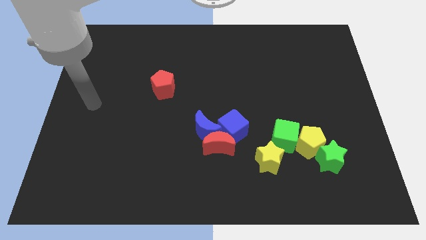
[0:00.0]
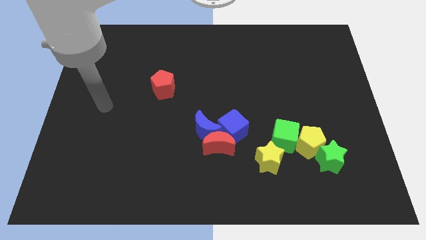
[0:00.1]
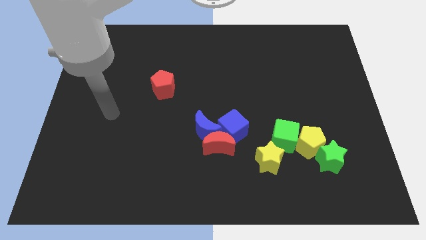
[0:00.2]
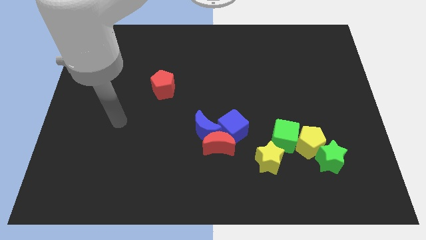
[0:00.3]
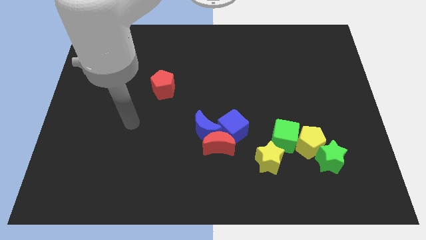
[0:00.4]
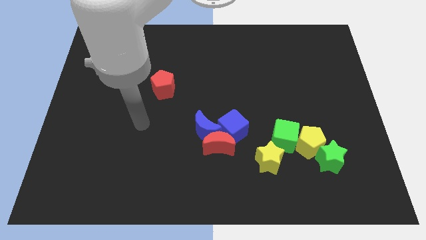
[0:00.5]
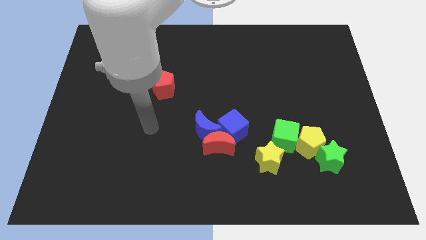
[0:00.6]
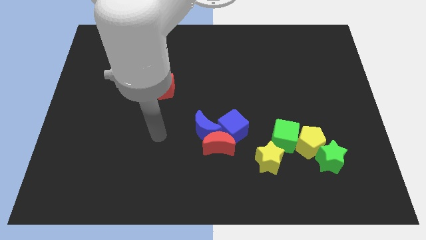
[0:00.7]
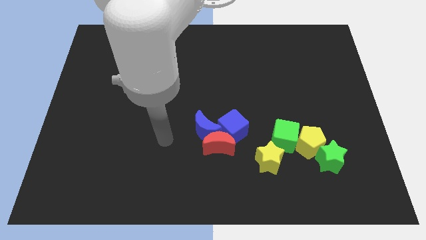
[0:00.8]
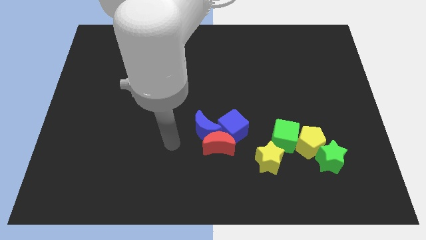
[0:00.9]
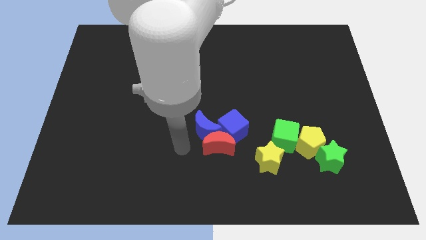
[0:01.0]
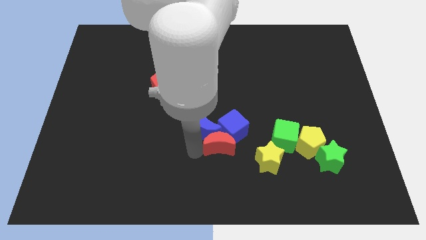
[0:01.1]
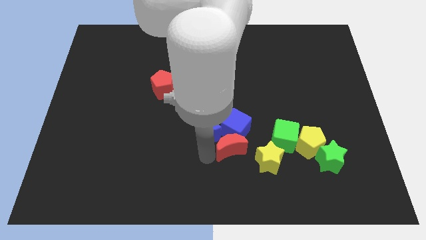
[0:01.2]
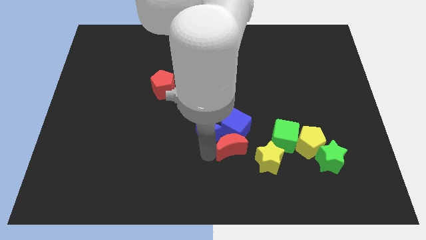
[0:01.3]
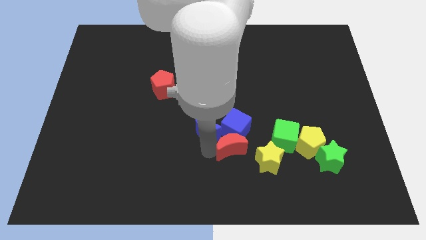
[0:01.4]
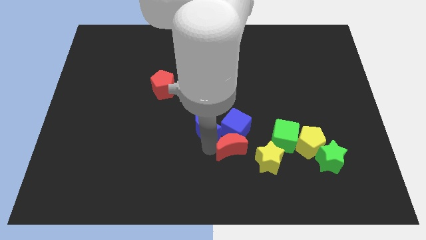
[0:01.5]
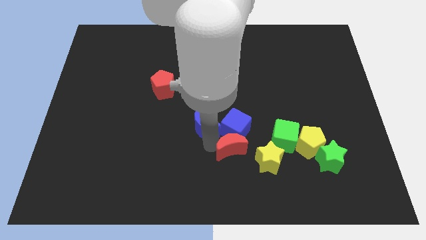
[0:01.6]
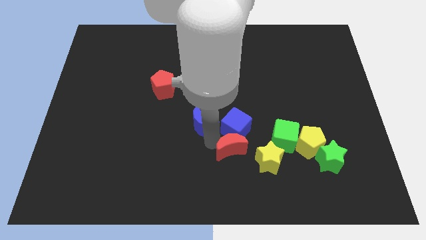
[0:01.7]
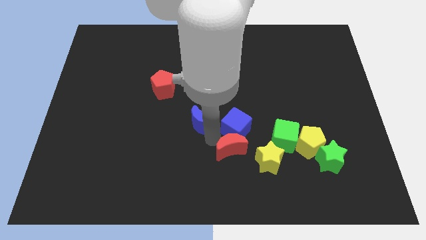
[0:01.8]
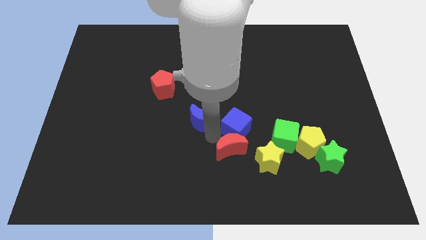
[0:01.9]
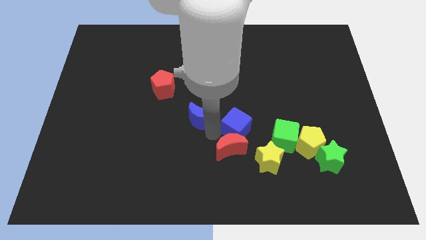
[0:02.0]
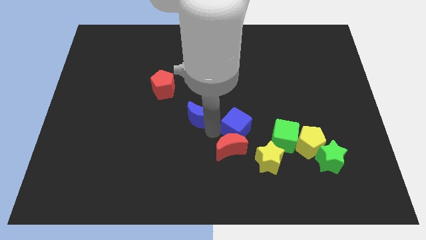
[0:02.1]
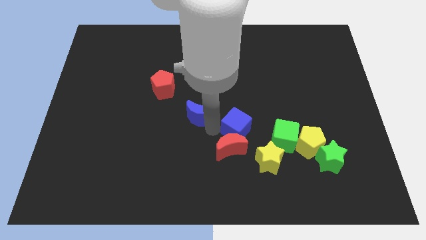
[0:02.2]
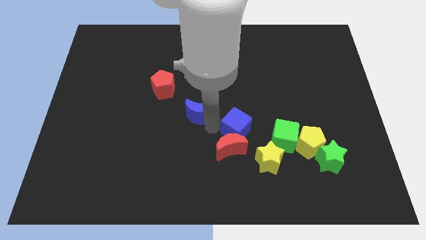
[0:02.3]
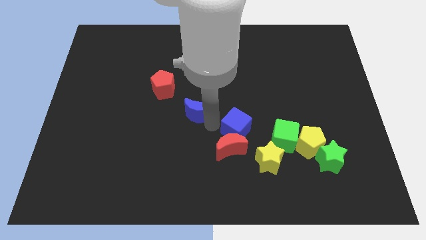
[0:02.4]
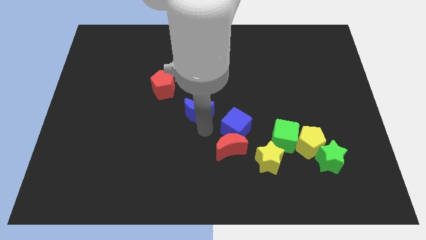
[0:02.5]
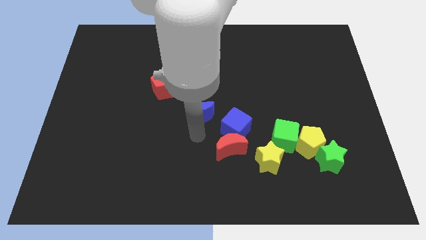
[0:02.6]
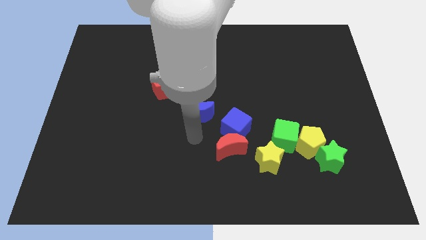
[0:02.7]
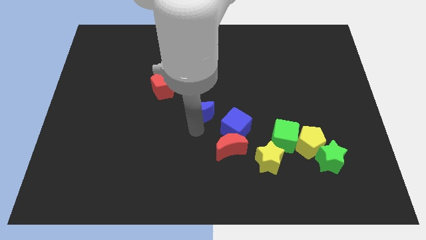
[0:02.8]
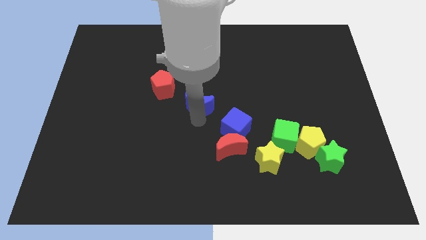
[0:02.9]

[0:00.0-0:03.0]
move the blue moon a little bit up

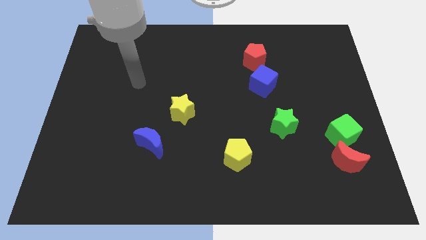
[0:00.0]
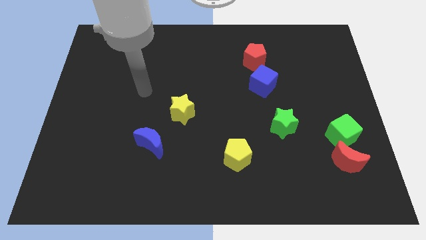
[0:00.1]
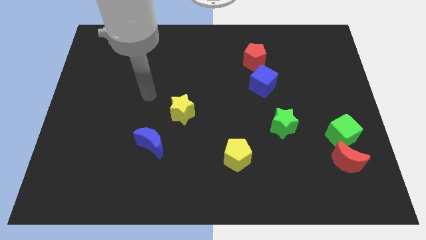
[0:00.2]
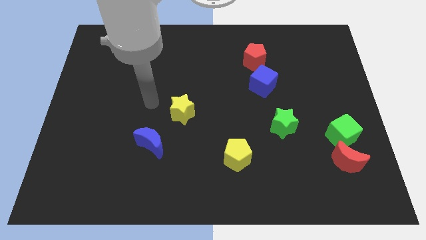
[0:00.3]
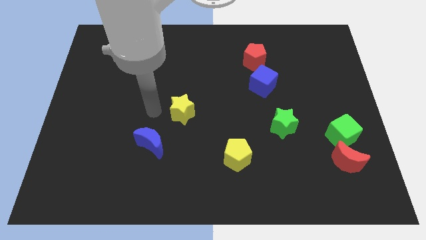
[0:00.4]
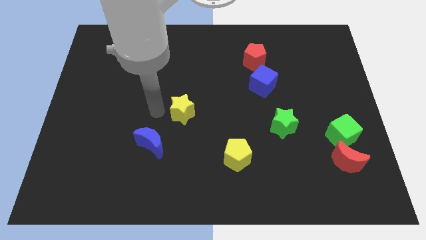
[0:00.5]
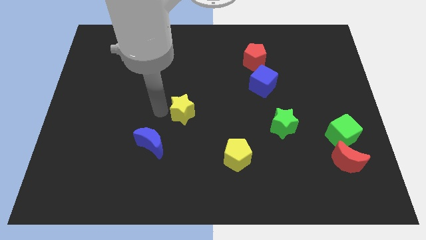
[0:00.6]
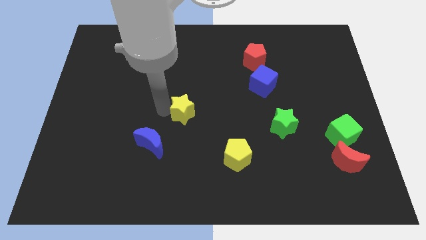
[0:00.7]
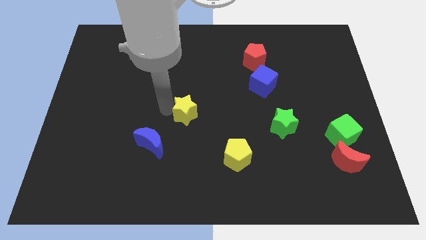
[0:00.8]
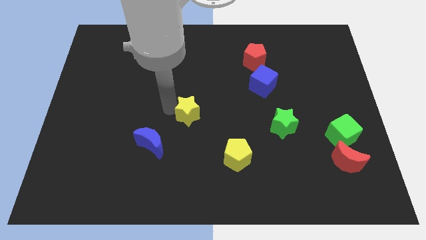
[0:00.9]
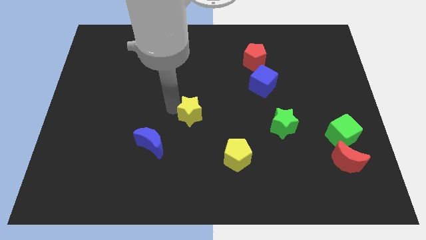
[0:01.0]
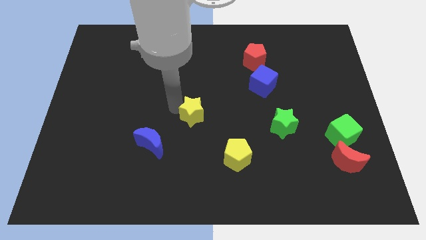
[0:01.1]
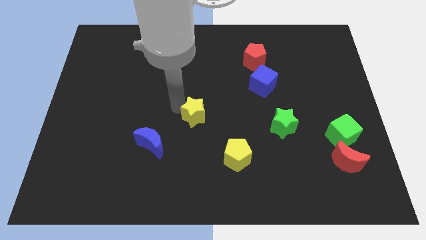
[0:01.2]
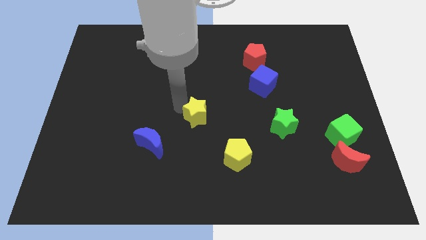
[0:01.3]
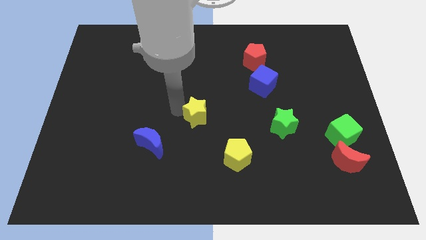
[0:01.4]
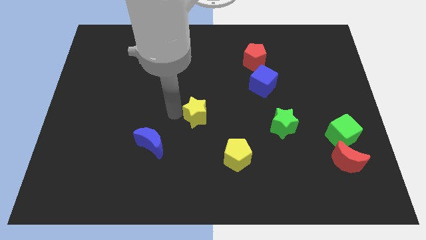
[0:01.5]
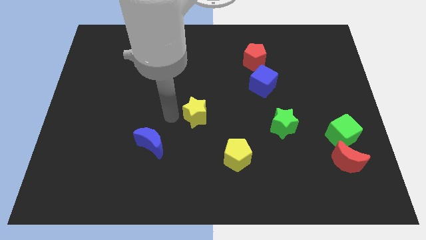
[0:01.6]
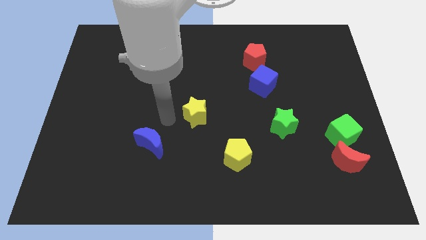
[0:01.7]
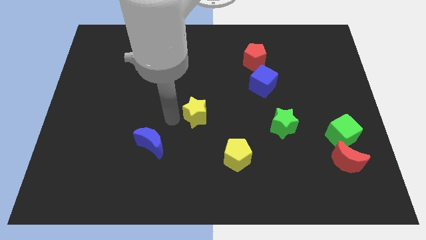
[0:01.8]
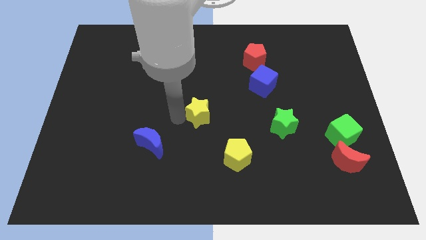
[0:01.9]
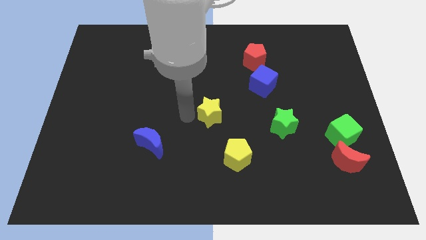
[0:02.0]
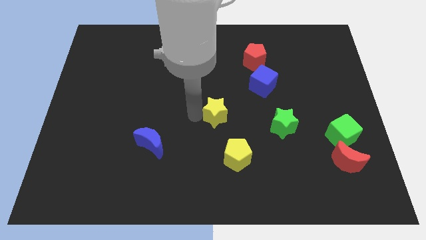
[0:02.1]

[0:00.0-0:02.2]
move the yellow star to the right a bit

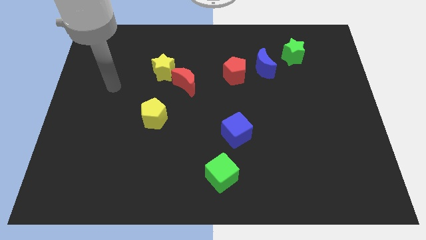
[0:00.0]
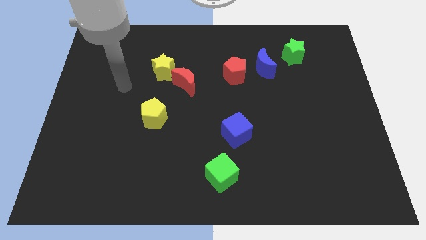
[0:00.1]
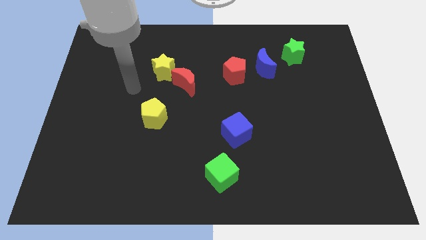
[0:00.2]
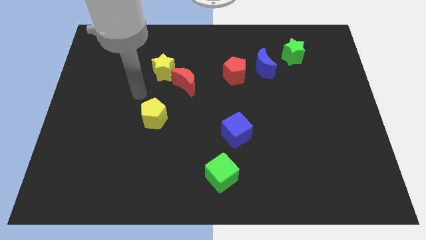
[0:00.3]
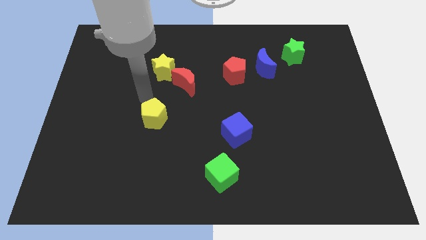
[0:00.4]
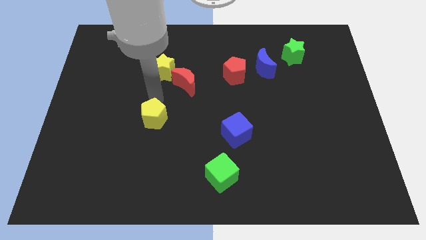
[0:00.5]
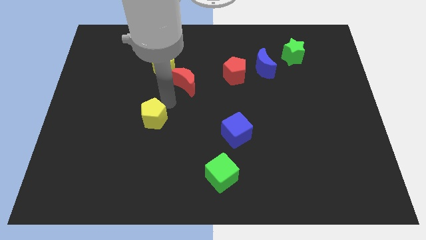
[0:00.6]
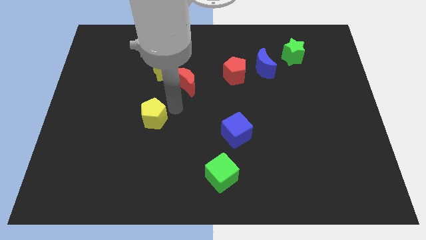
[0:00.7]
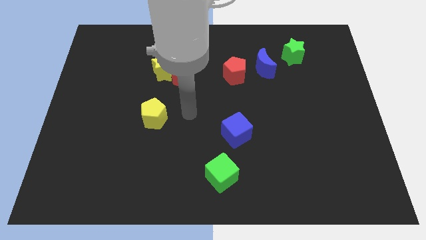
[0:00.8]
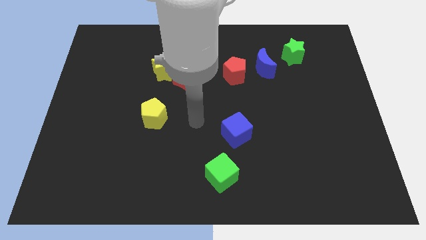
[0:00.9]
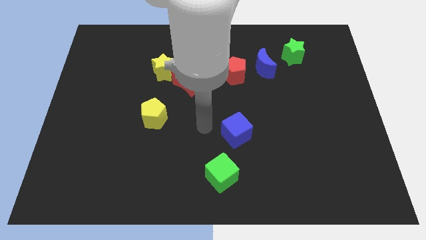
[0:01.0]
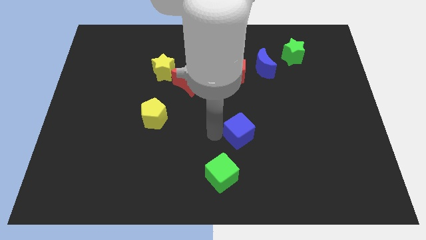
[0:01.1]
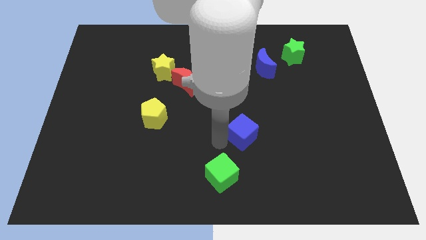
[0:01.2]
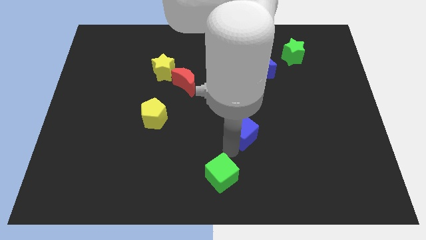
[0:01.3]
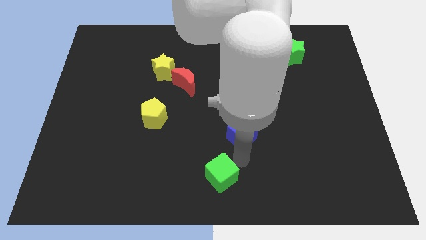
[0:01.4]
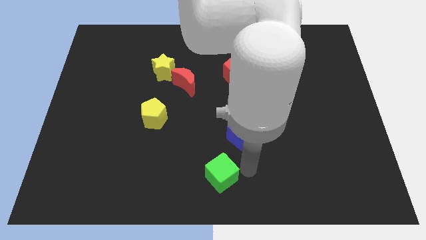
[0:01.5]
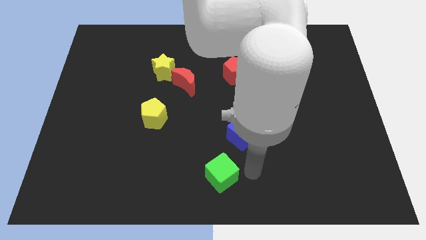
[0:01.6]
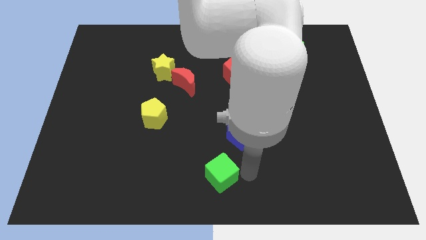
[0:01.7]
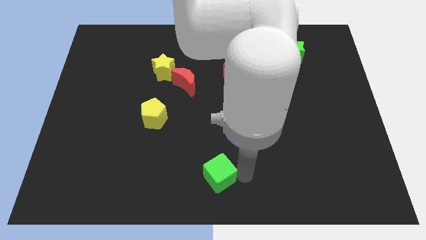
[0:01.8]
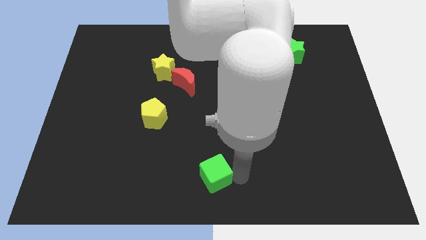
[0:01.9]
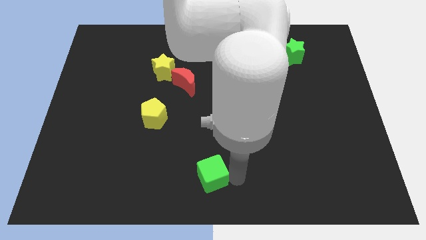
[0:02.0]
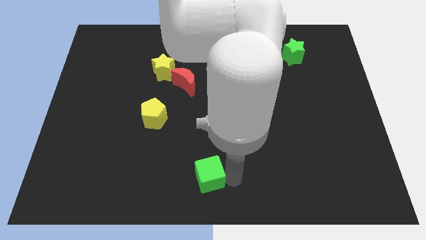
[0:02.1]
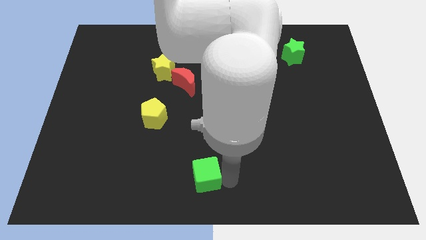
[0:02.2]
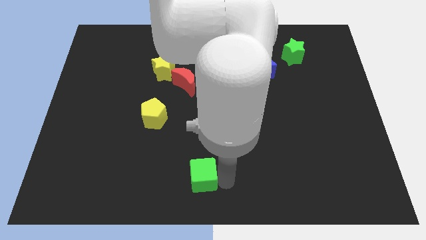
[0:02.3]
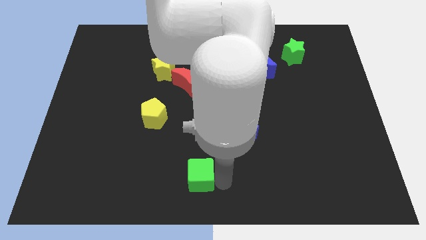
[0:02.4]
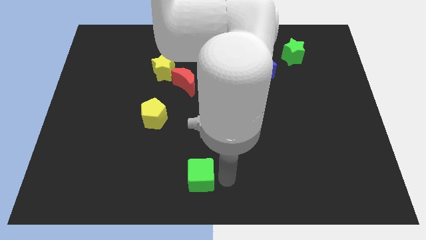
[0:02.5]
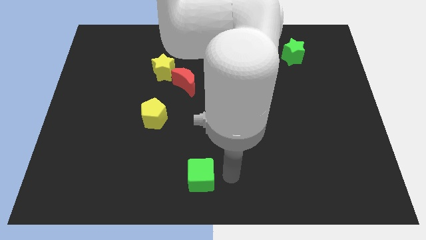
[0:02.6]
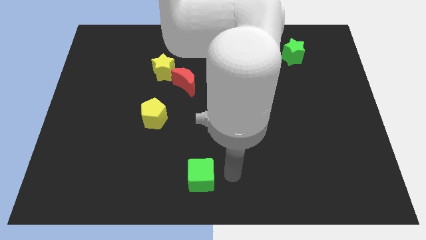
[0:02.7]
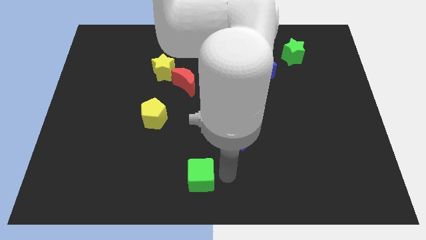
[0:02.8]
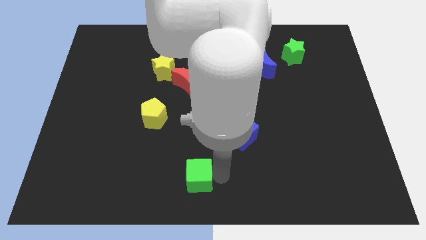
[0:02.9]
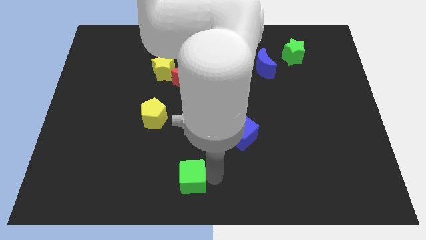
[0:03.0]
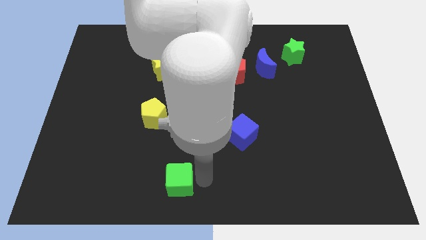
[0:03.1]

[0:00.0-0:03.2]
move the green cube to the left somewhat
